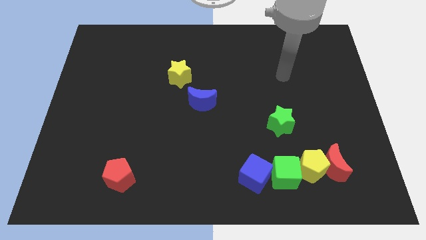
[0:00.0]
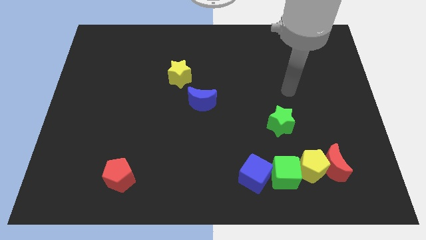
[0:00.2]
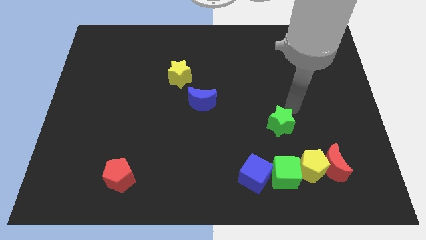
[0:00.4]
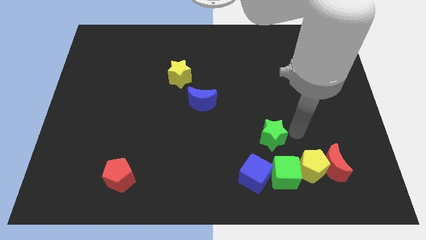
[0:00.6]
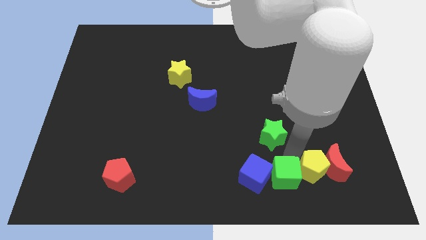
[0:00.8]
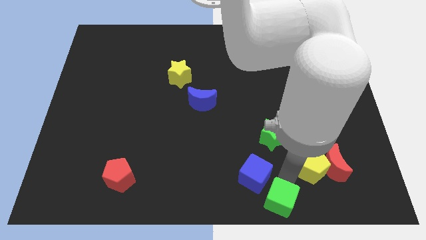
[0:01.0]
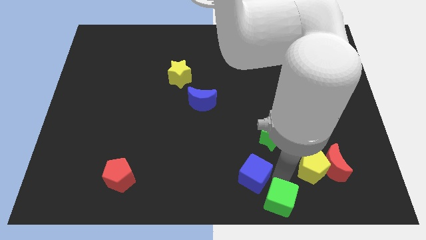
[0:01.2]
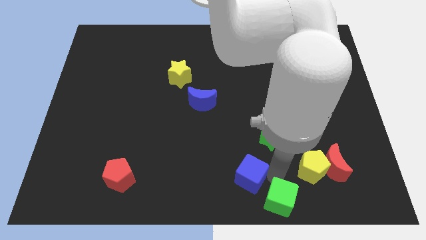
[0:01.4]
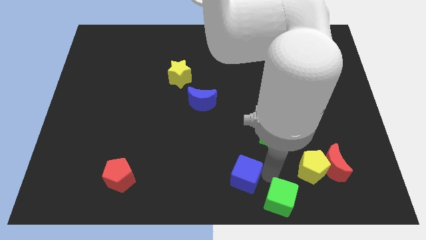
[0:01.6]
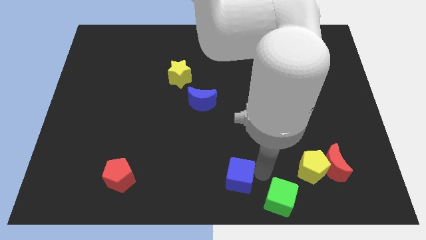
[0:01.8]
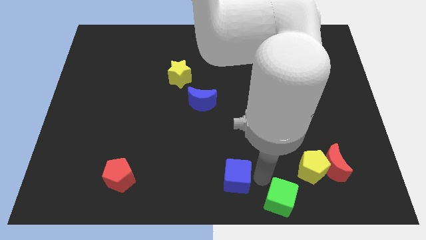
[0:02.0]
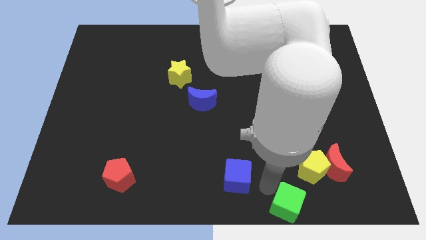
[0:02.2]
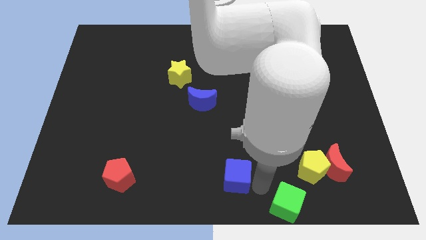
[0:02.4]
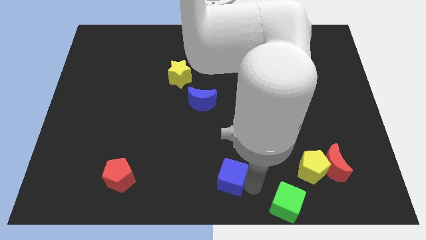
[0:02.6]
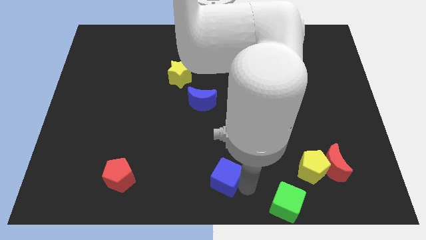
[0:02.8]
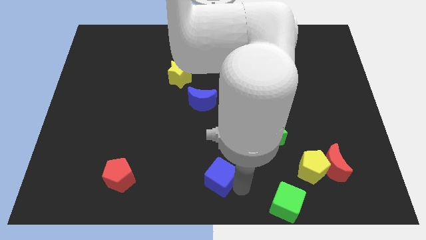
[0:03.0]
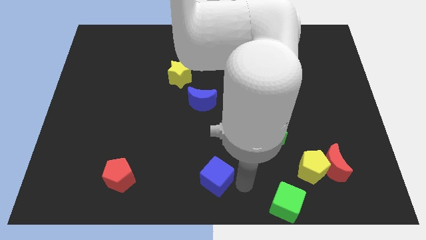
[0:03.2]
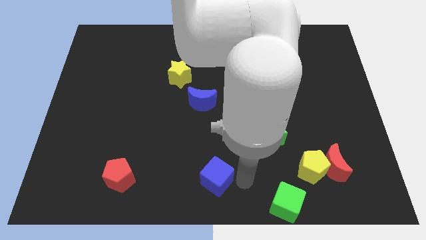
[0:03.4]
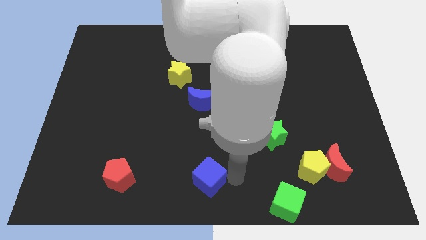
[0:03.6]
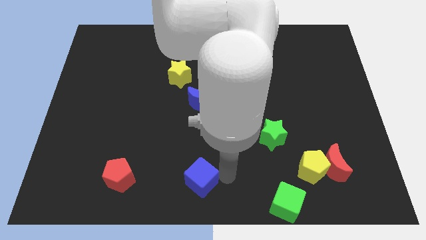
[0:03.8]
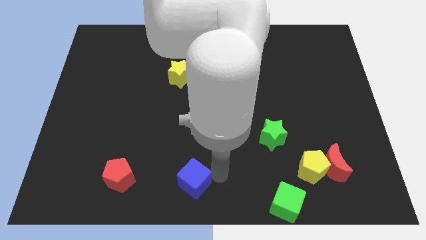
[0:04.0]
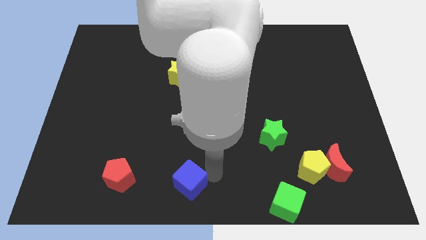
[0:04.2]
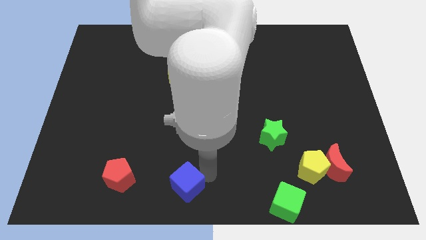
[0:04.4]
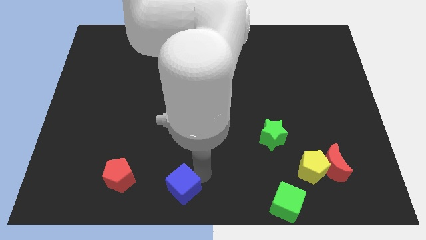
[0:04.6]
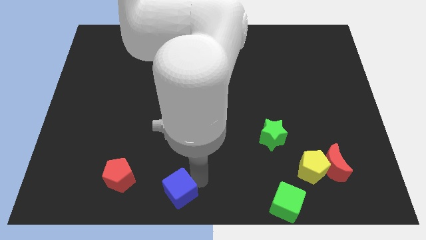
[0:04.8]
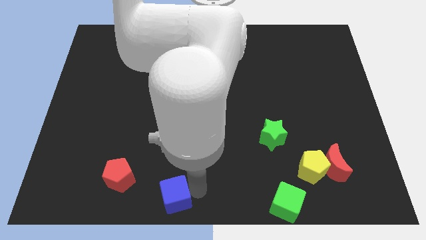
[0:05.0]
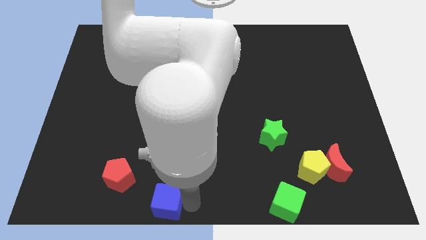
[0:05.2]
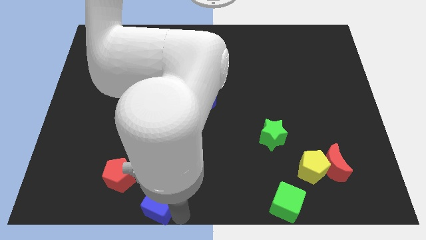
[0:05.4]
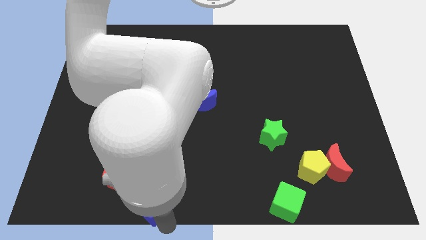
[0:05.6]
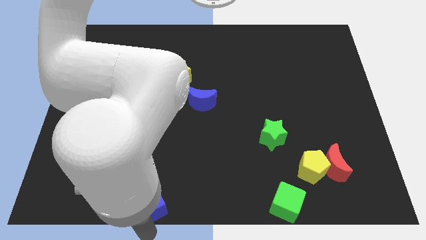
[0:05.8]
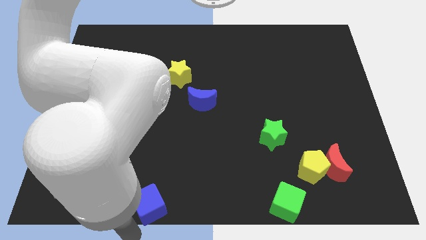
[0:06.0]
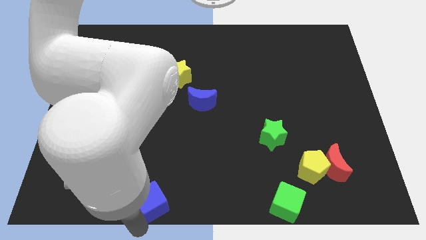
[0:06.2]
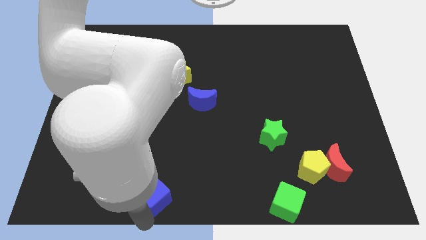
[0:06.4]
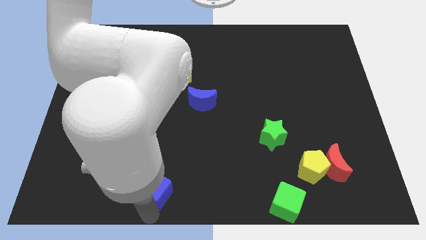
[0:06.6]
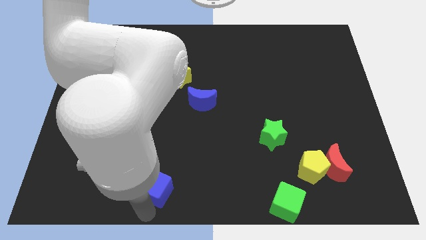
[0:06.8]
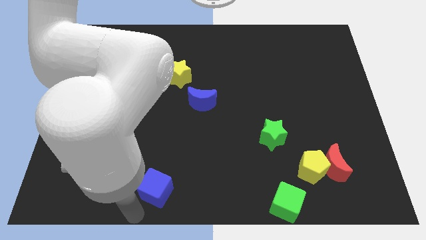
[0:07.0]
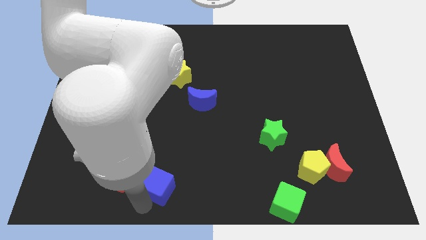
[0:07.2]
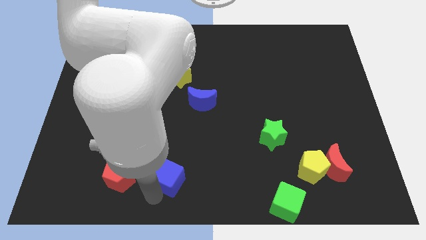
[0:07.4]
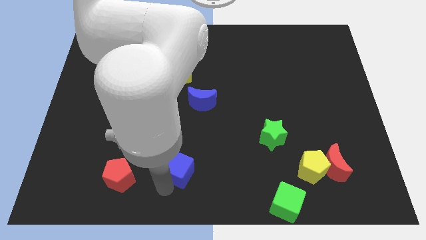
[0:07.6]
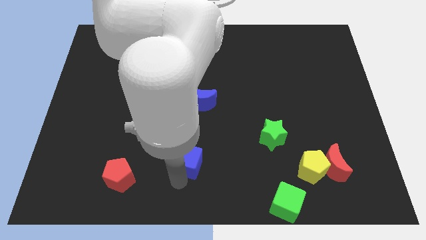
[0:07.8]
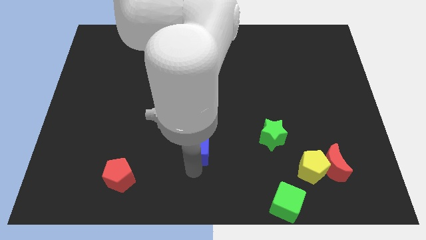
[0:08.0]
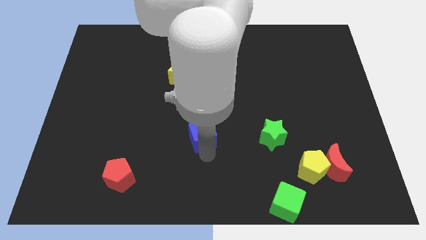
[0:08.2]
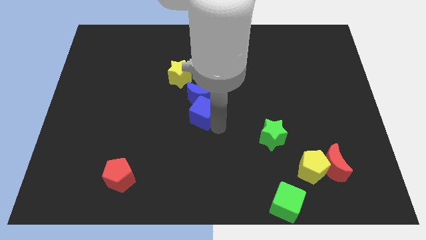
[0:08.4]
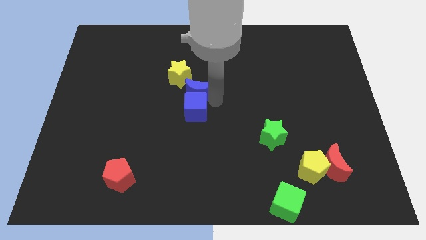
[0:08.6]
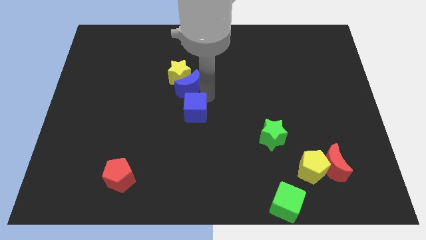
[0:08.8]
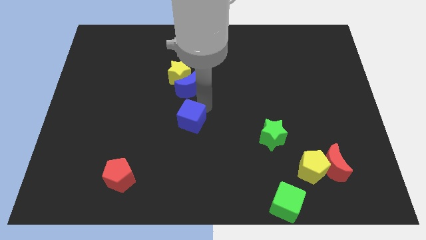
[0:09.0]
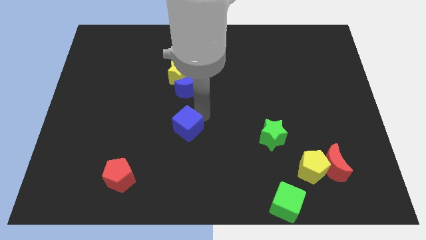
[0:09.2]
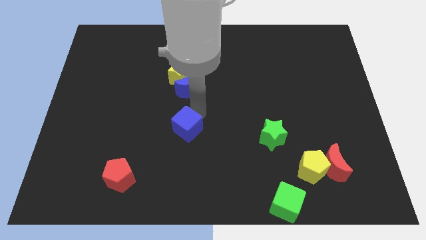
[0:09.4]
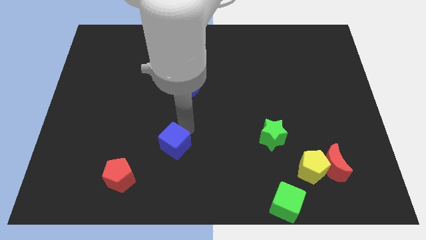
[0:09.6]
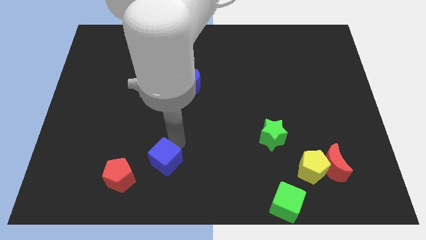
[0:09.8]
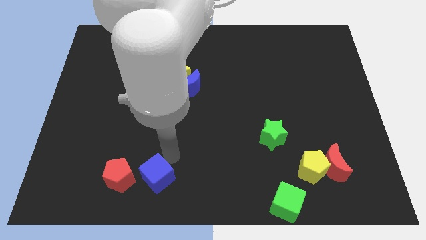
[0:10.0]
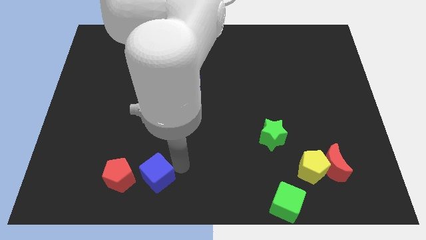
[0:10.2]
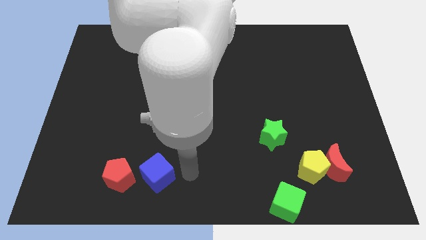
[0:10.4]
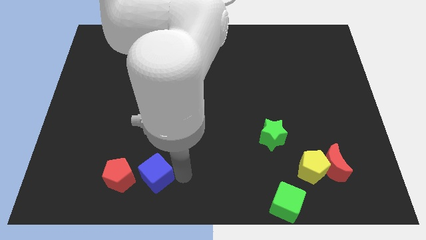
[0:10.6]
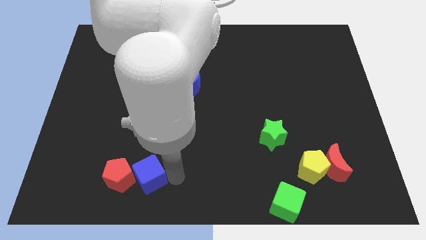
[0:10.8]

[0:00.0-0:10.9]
push the blue cube to the red pentagon
